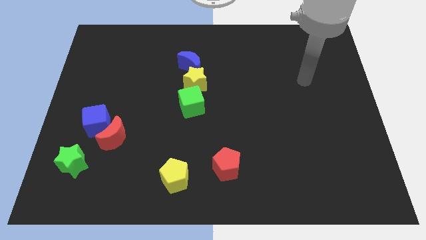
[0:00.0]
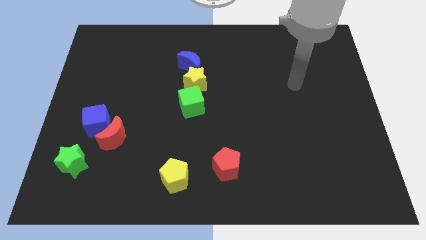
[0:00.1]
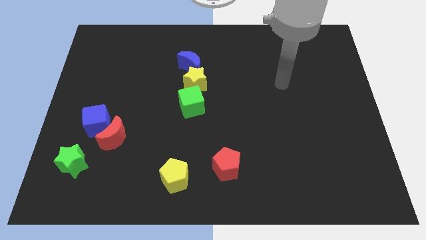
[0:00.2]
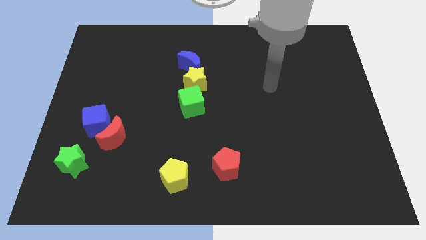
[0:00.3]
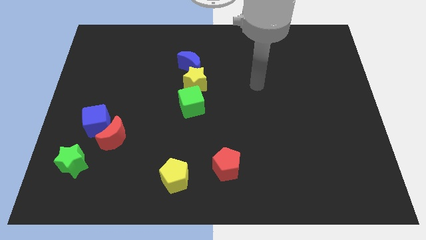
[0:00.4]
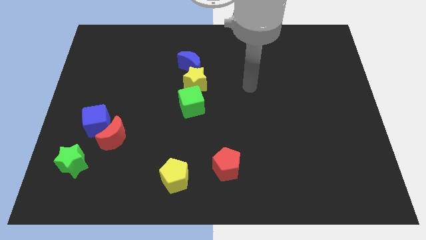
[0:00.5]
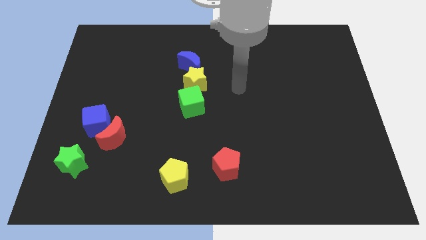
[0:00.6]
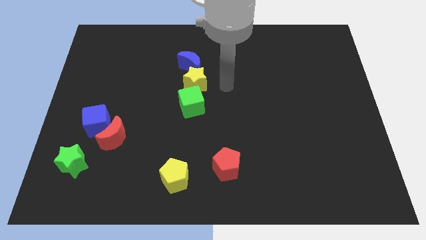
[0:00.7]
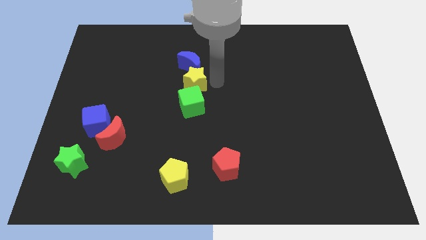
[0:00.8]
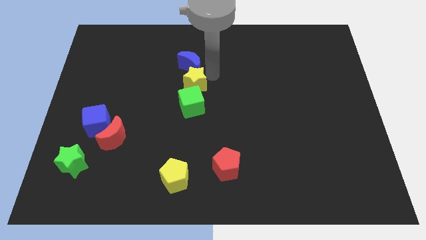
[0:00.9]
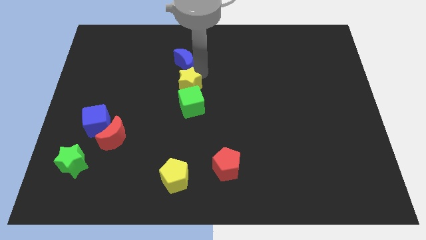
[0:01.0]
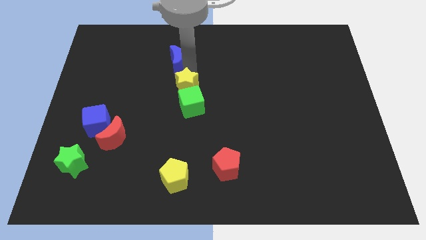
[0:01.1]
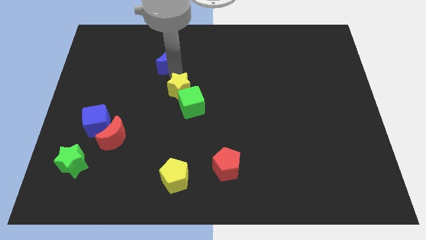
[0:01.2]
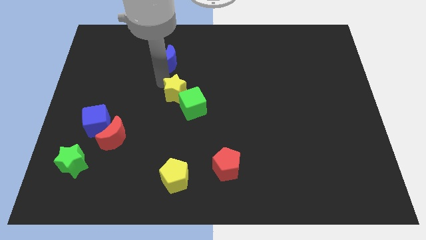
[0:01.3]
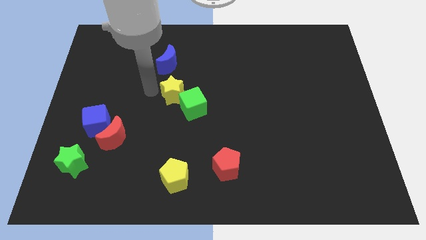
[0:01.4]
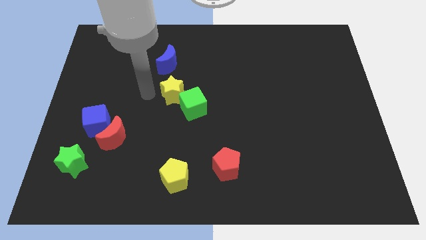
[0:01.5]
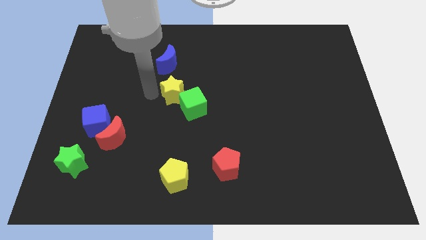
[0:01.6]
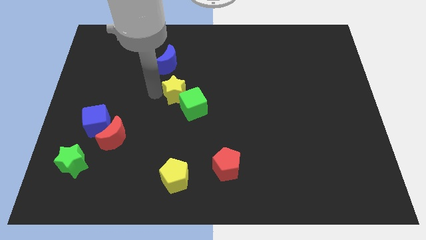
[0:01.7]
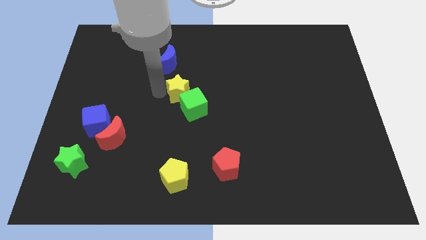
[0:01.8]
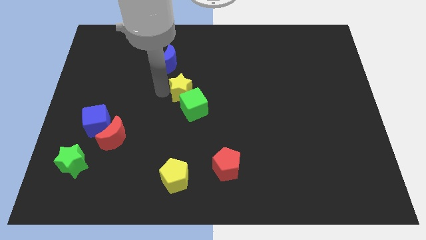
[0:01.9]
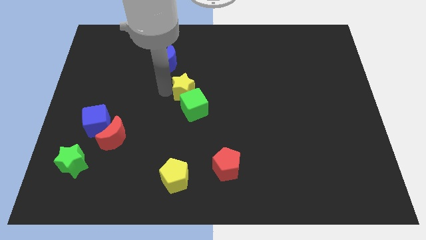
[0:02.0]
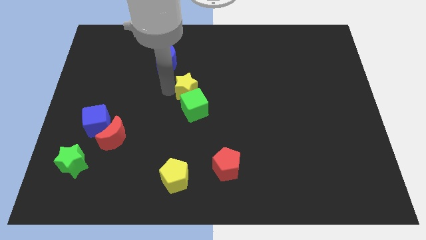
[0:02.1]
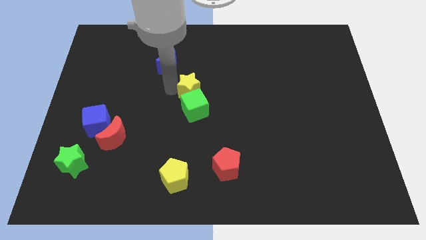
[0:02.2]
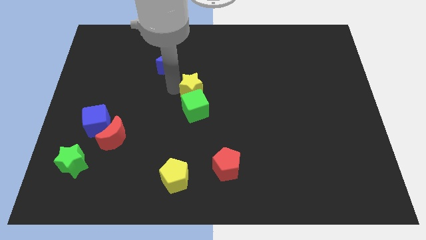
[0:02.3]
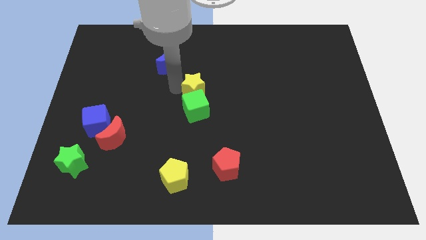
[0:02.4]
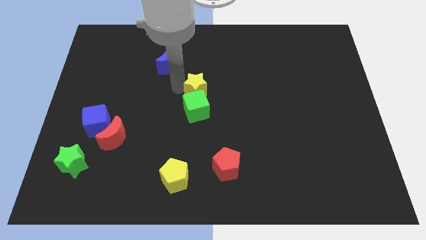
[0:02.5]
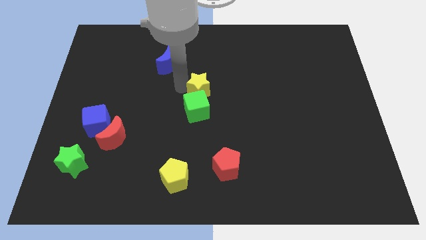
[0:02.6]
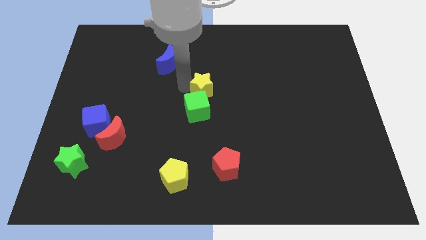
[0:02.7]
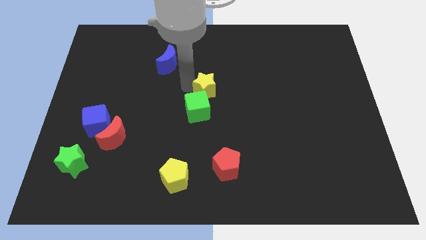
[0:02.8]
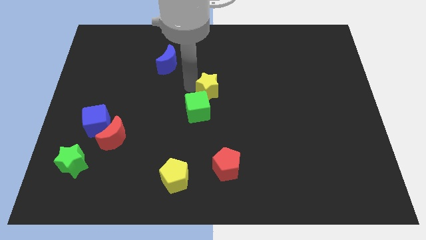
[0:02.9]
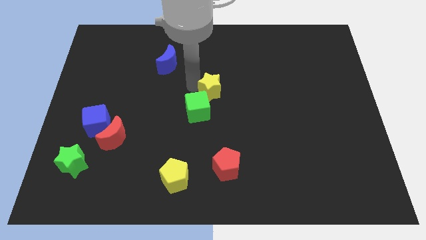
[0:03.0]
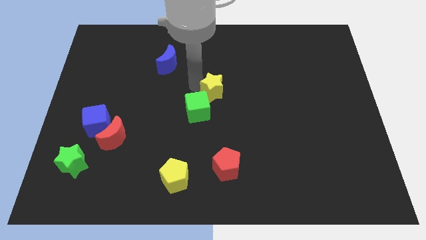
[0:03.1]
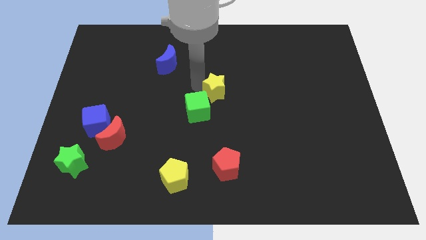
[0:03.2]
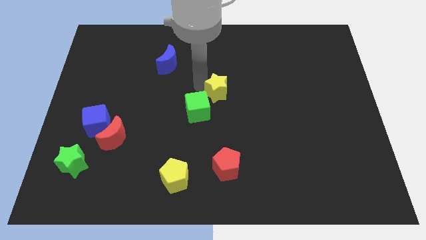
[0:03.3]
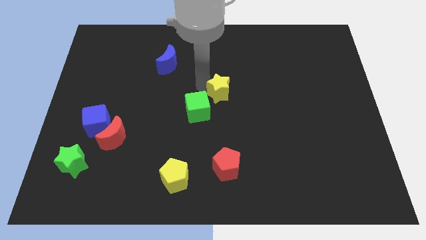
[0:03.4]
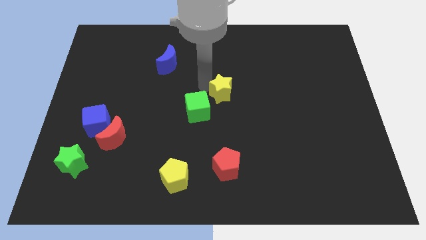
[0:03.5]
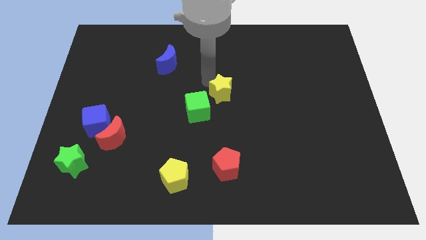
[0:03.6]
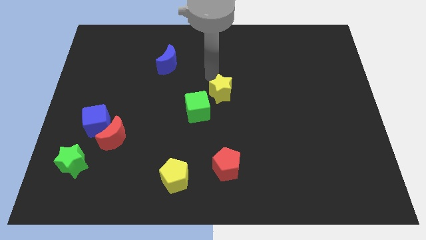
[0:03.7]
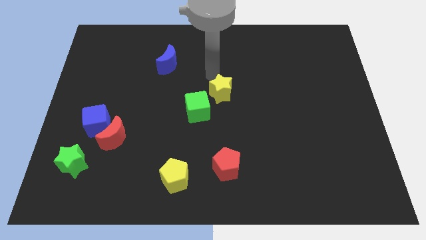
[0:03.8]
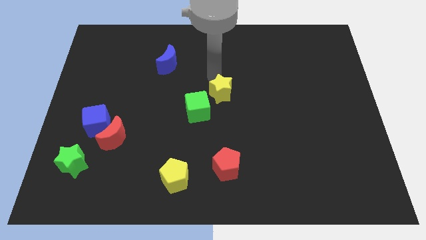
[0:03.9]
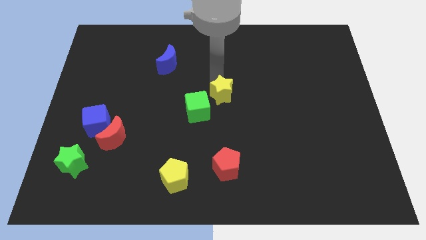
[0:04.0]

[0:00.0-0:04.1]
slide the yellow star a bit down and to the right

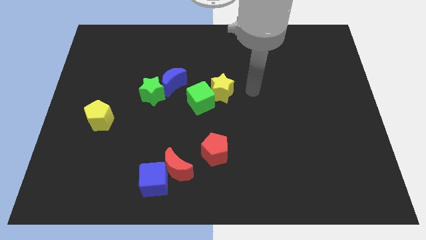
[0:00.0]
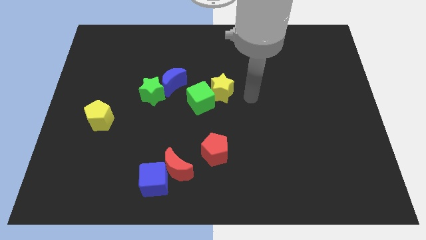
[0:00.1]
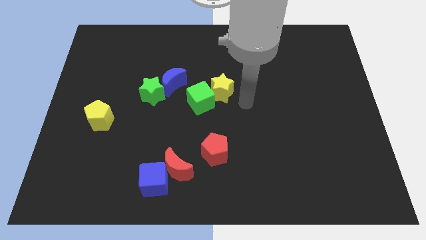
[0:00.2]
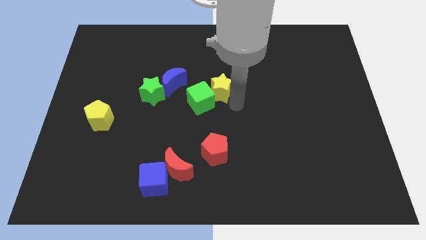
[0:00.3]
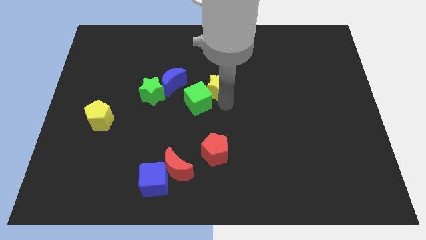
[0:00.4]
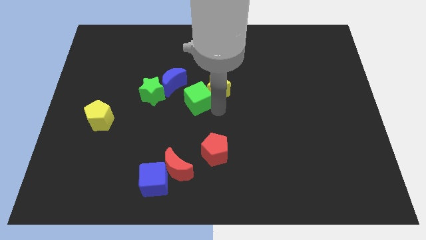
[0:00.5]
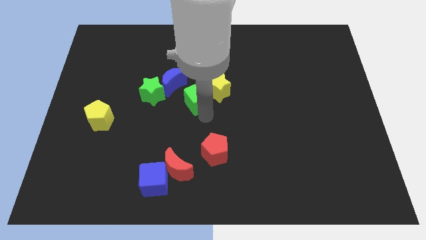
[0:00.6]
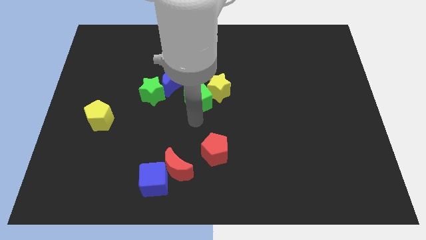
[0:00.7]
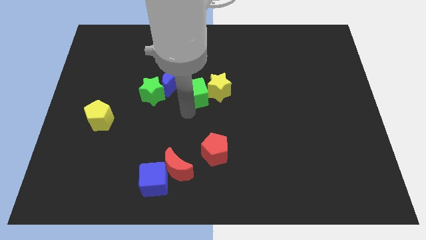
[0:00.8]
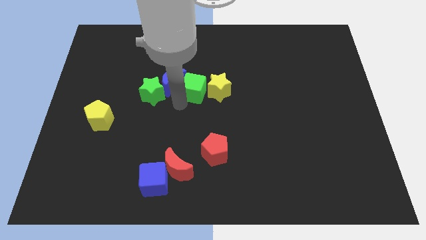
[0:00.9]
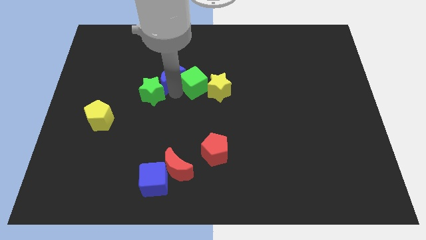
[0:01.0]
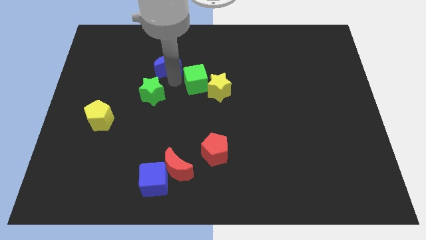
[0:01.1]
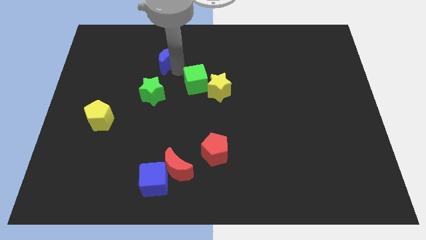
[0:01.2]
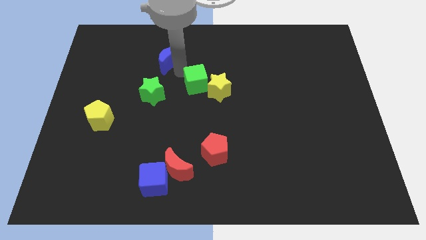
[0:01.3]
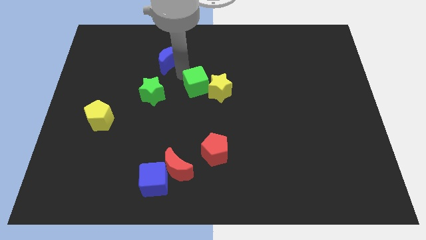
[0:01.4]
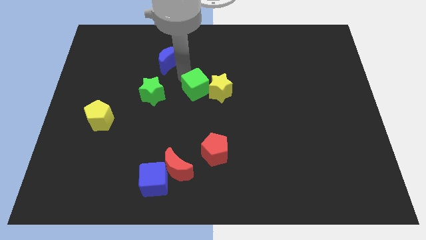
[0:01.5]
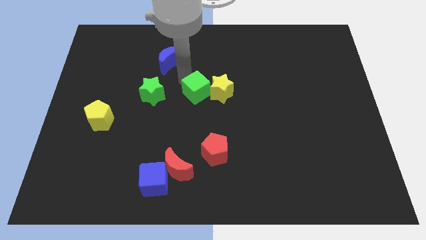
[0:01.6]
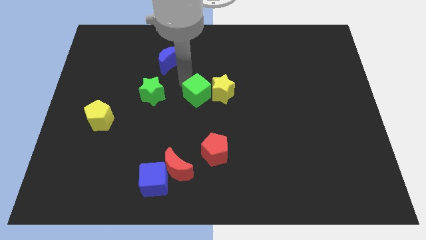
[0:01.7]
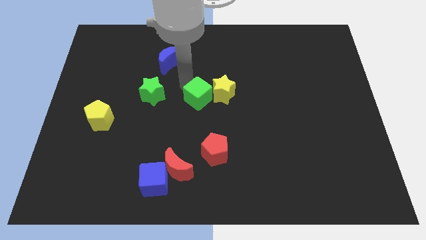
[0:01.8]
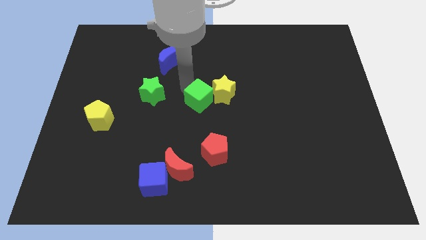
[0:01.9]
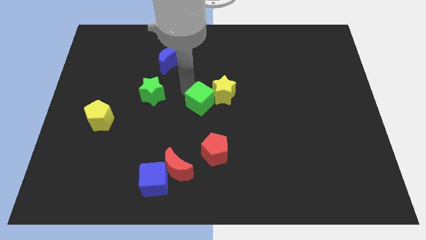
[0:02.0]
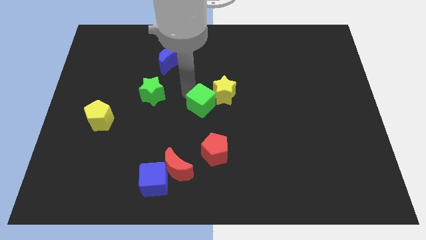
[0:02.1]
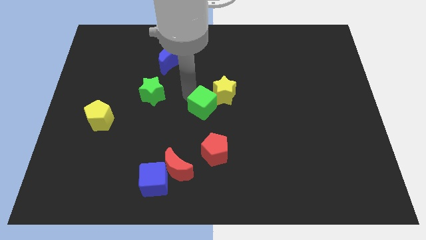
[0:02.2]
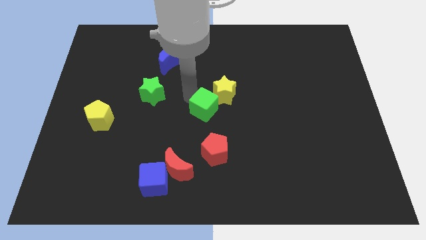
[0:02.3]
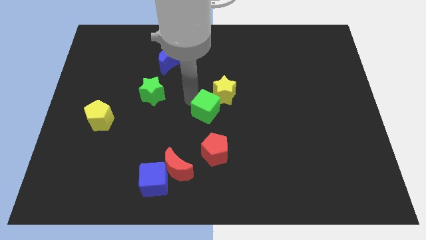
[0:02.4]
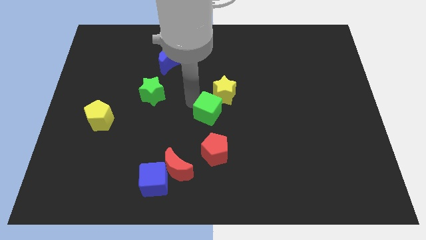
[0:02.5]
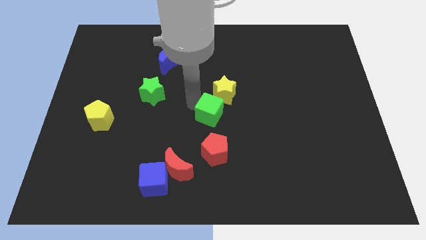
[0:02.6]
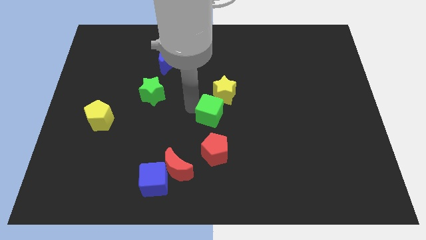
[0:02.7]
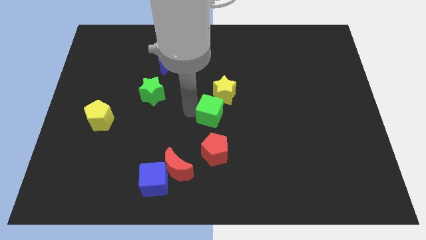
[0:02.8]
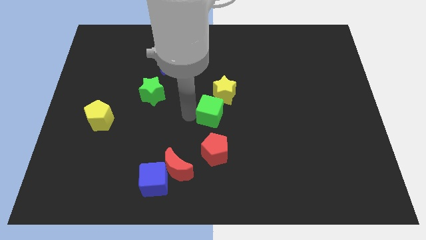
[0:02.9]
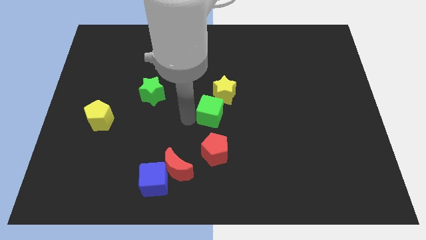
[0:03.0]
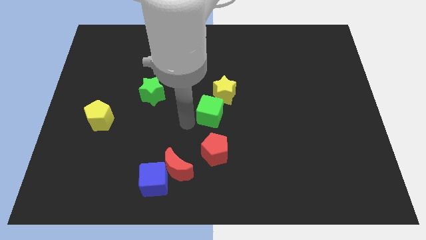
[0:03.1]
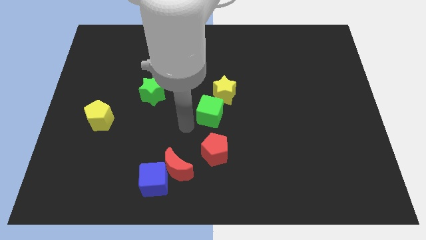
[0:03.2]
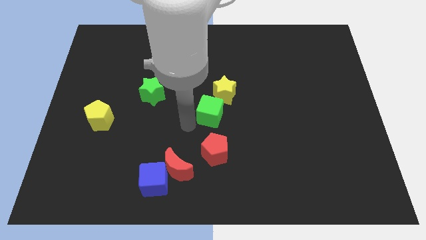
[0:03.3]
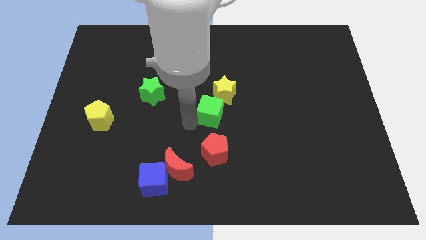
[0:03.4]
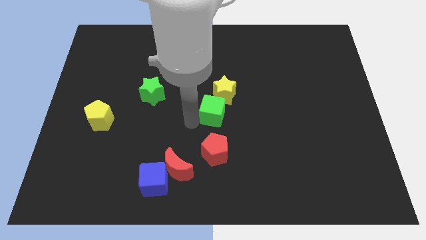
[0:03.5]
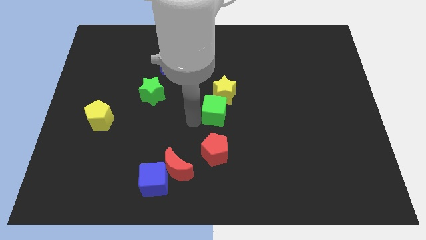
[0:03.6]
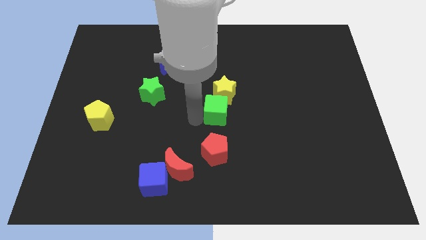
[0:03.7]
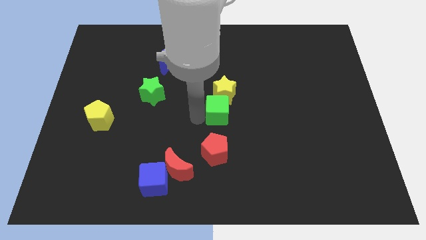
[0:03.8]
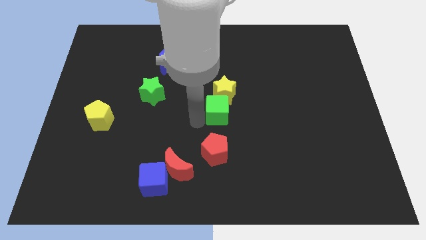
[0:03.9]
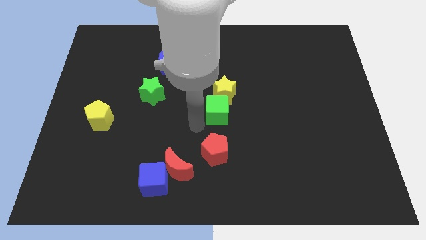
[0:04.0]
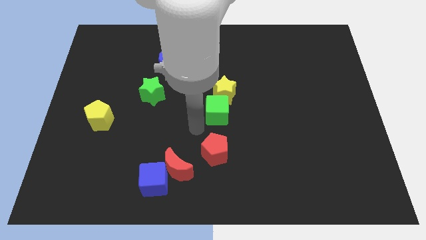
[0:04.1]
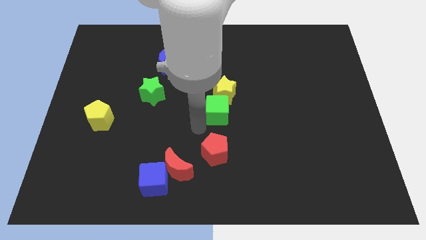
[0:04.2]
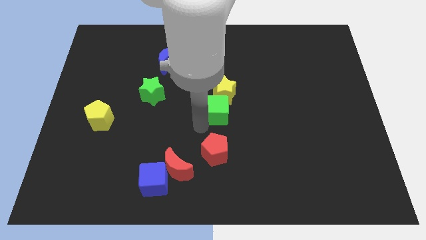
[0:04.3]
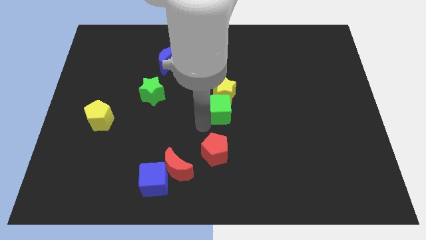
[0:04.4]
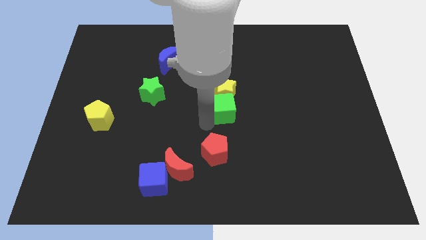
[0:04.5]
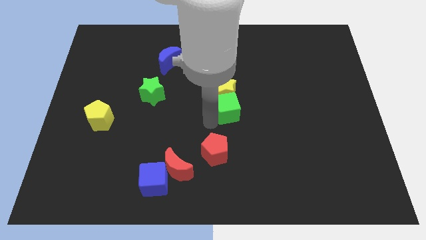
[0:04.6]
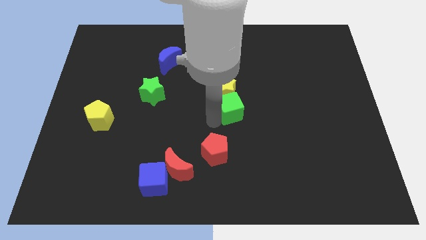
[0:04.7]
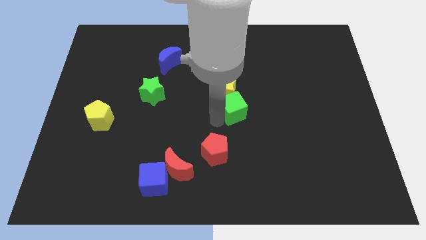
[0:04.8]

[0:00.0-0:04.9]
slightly move the green cube right
